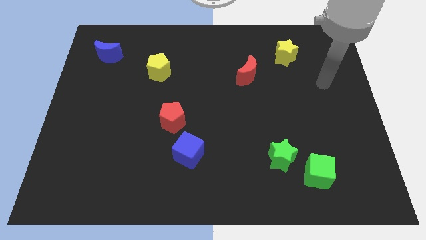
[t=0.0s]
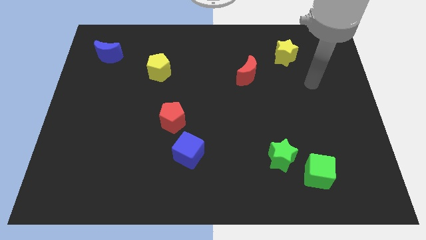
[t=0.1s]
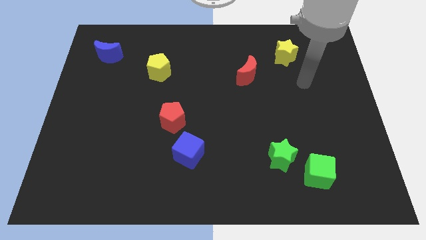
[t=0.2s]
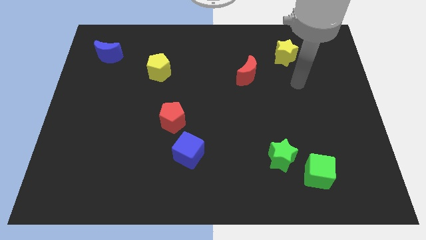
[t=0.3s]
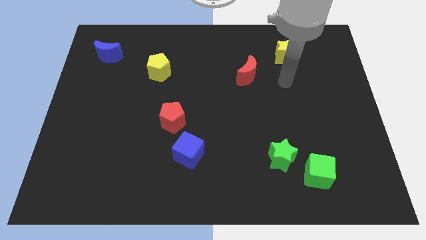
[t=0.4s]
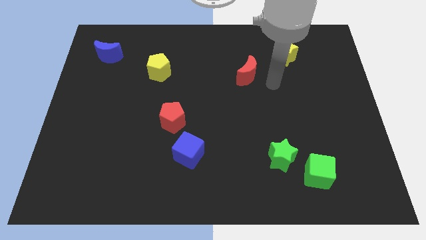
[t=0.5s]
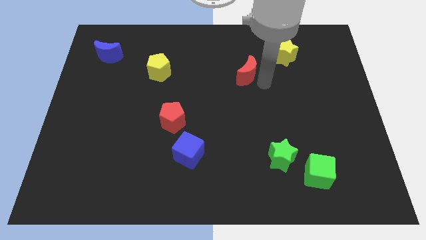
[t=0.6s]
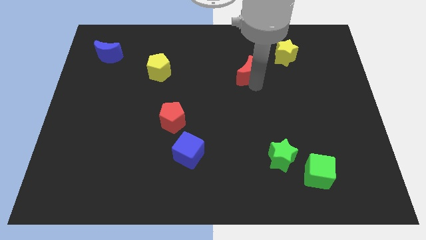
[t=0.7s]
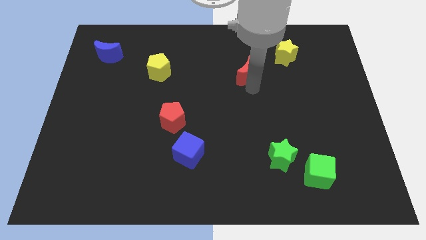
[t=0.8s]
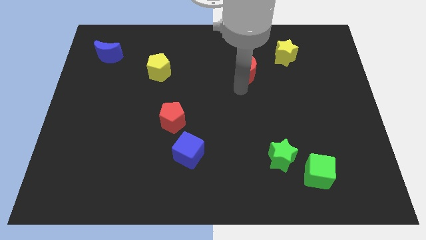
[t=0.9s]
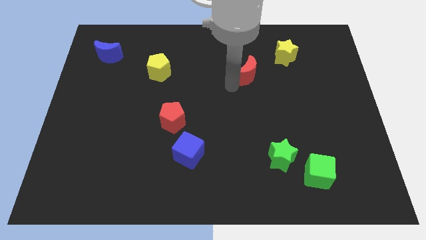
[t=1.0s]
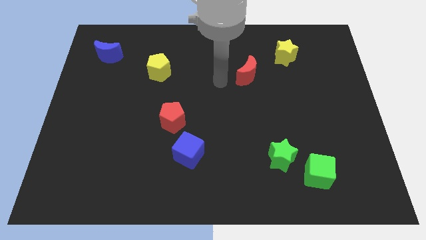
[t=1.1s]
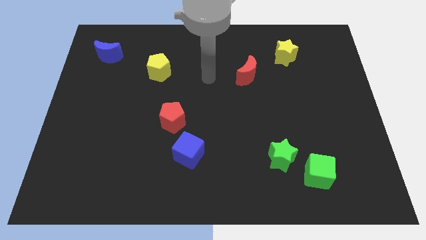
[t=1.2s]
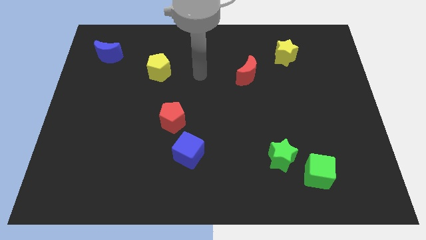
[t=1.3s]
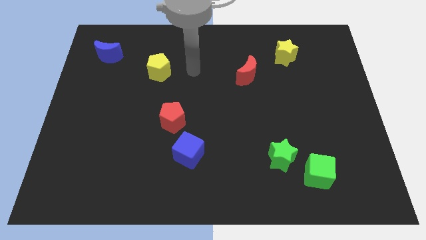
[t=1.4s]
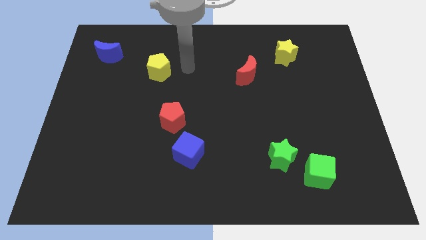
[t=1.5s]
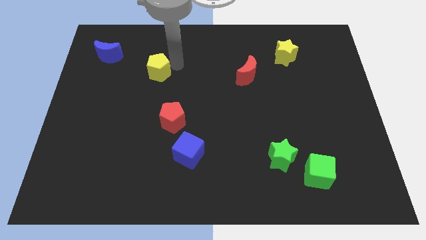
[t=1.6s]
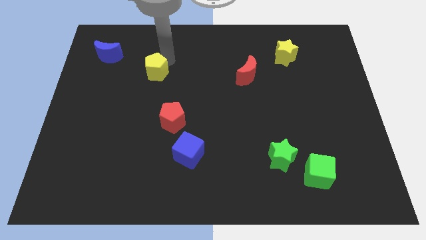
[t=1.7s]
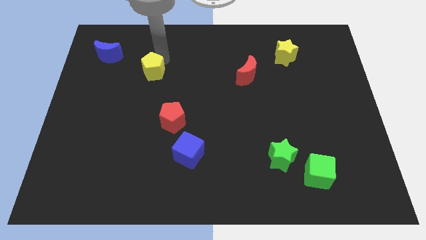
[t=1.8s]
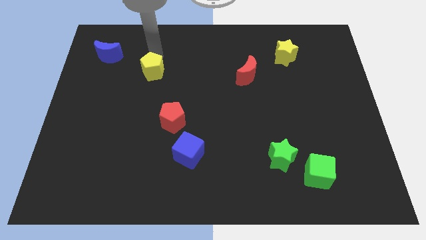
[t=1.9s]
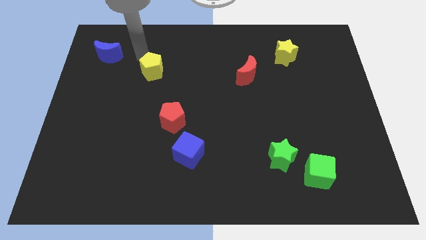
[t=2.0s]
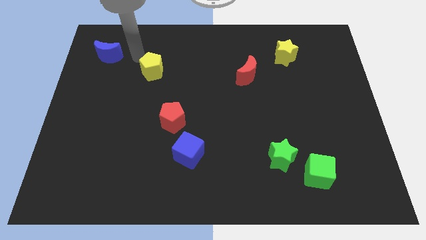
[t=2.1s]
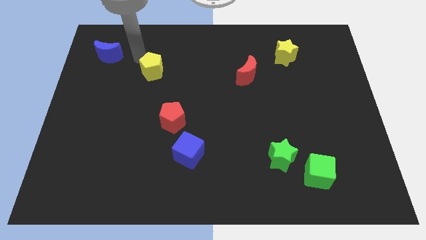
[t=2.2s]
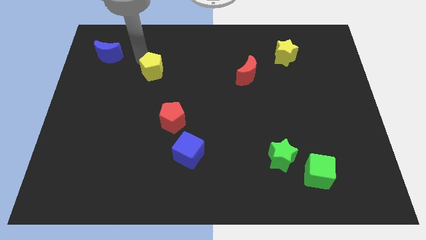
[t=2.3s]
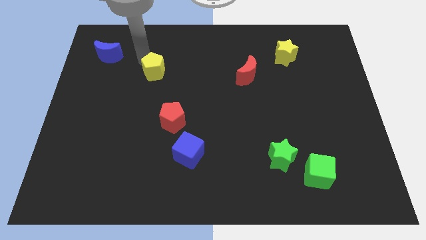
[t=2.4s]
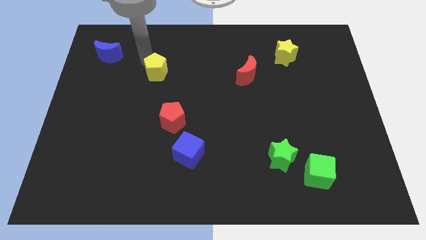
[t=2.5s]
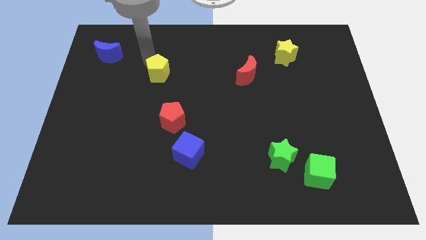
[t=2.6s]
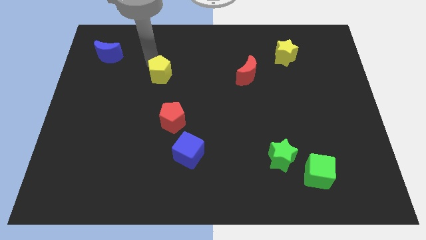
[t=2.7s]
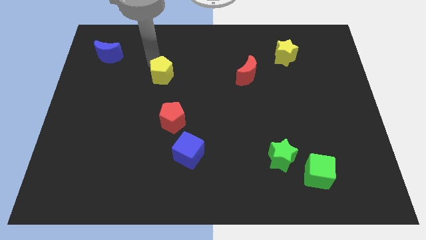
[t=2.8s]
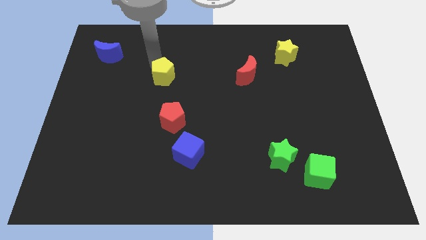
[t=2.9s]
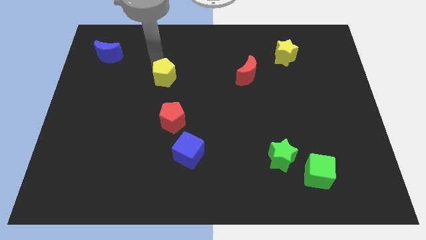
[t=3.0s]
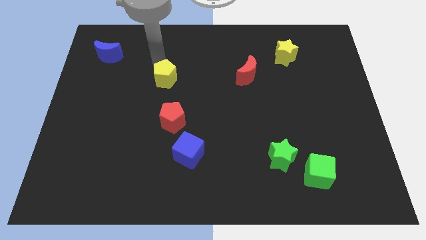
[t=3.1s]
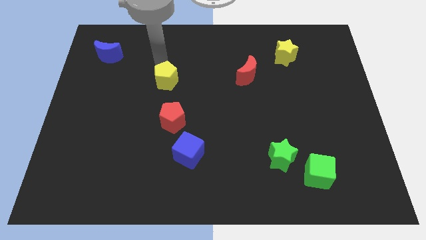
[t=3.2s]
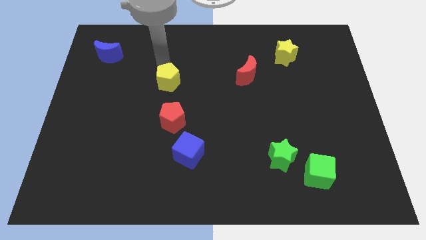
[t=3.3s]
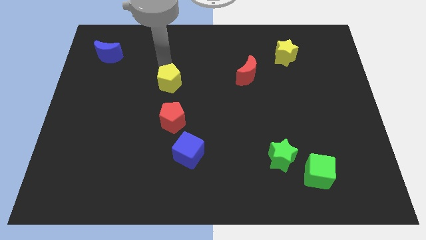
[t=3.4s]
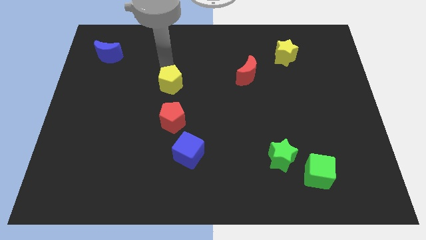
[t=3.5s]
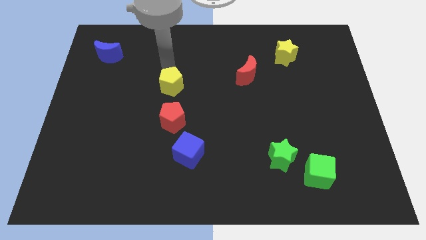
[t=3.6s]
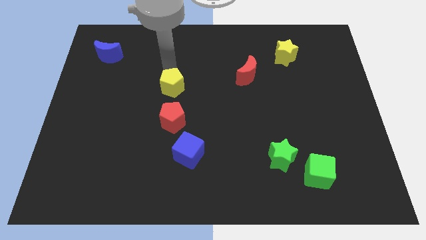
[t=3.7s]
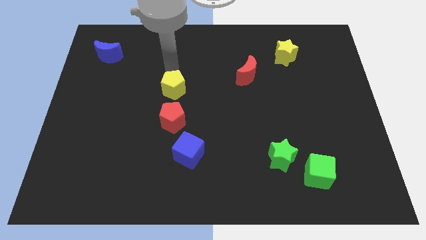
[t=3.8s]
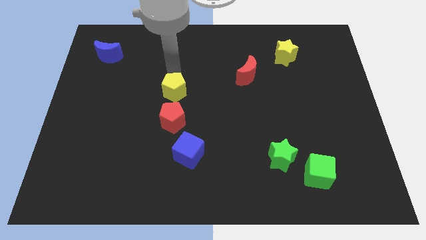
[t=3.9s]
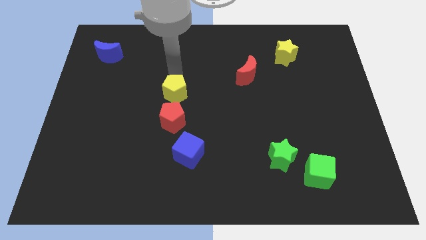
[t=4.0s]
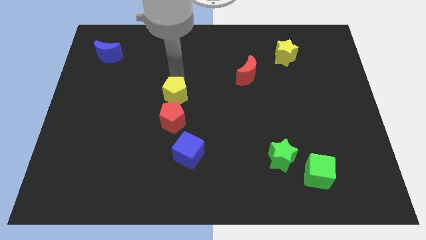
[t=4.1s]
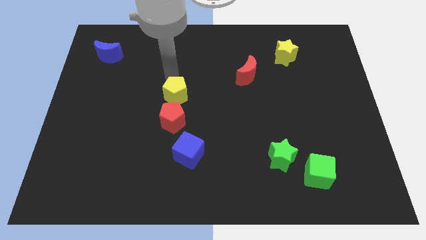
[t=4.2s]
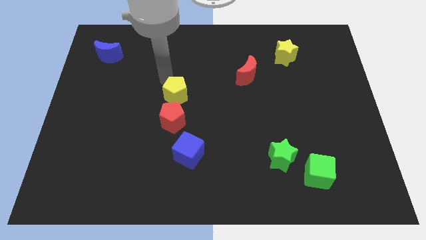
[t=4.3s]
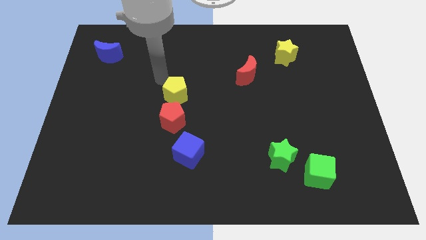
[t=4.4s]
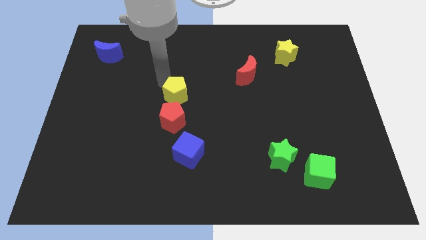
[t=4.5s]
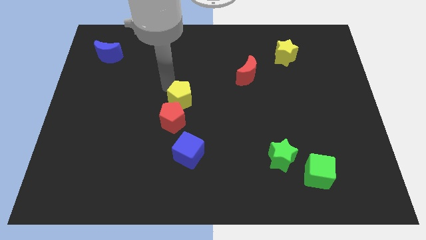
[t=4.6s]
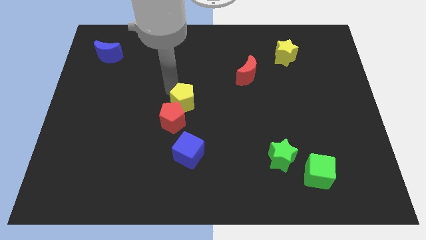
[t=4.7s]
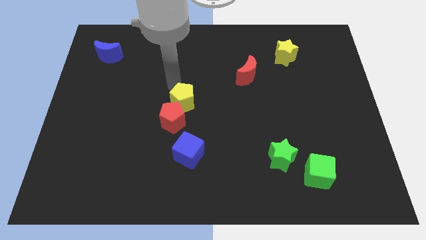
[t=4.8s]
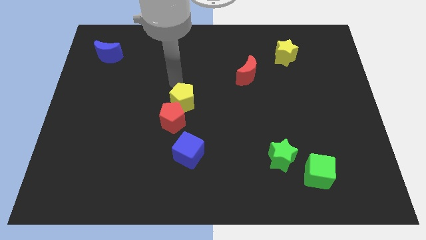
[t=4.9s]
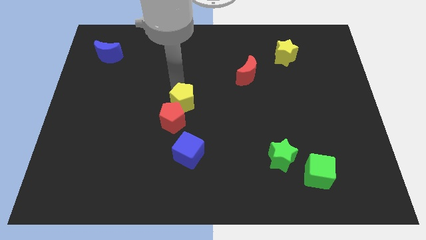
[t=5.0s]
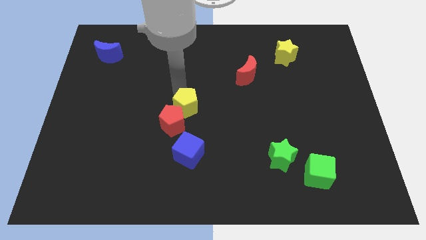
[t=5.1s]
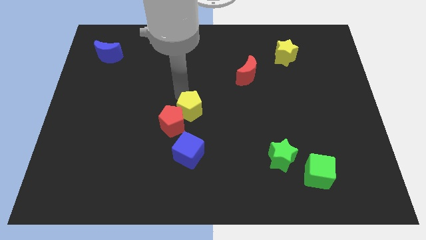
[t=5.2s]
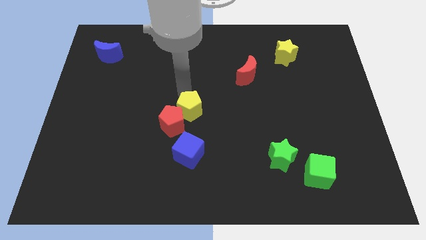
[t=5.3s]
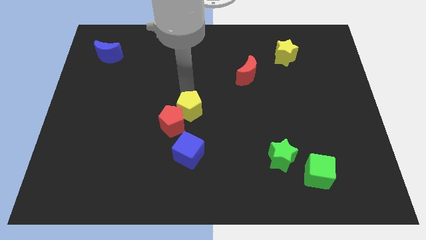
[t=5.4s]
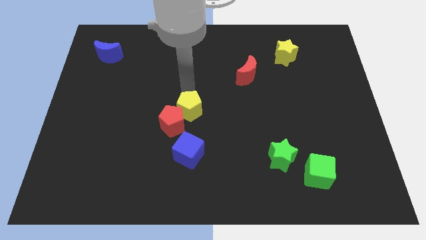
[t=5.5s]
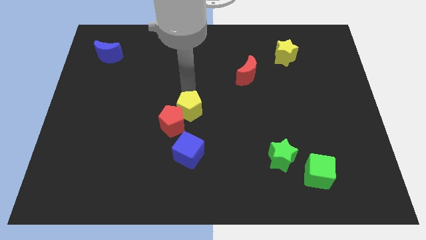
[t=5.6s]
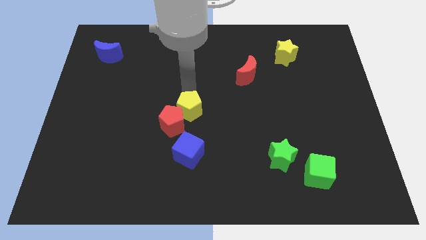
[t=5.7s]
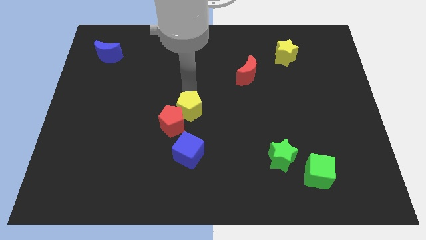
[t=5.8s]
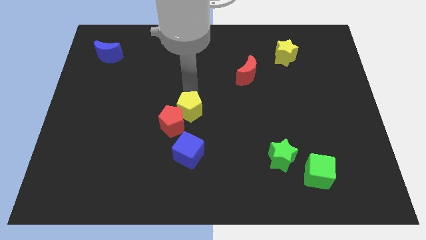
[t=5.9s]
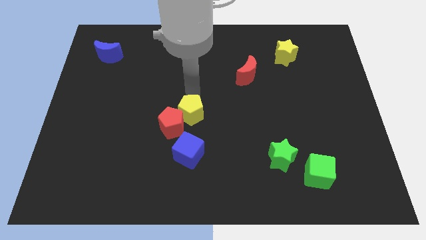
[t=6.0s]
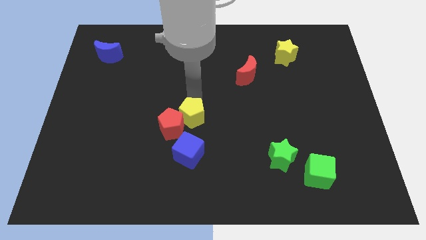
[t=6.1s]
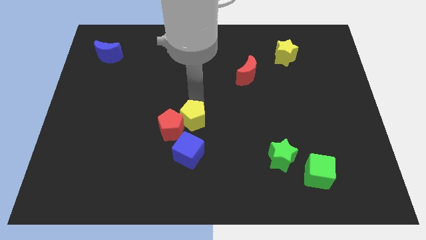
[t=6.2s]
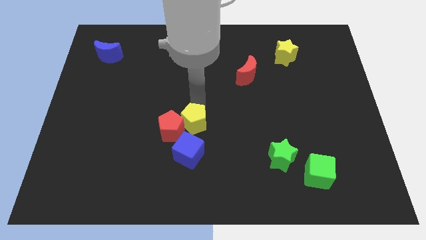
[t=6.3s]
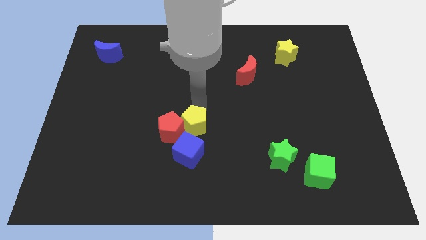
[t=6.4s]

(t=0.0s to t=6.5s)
move the yellow pentagon to the bottom right of the red pentagon
